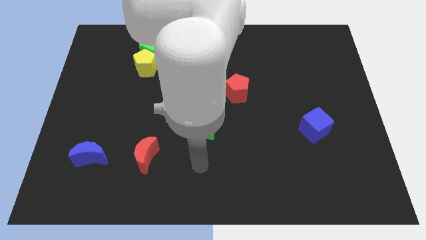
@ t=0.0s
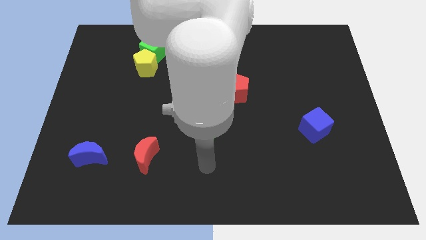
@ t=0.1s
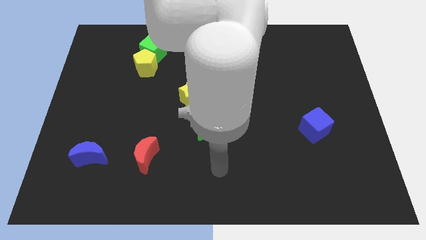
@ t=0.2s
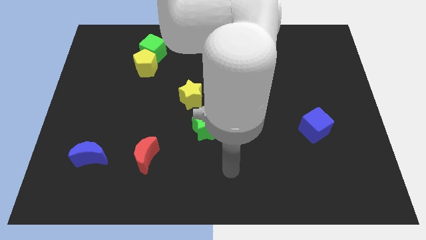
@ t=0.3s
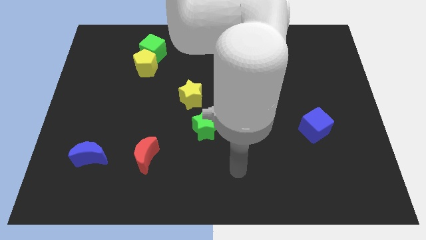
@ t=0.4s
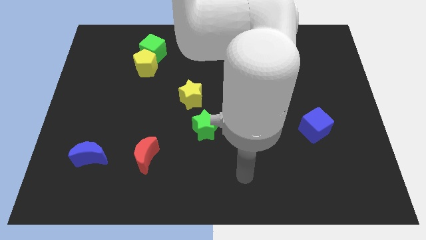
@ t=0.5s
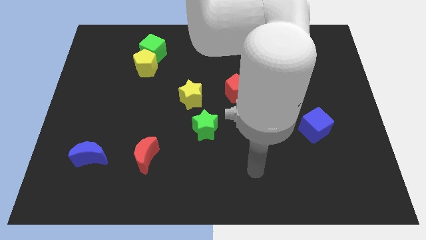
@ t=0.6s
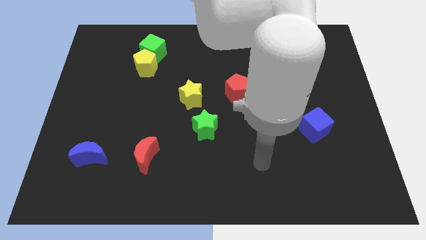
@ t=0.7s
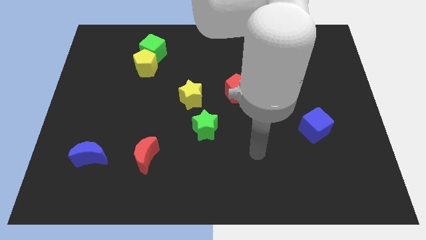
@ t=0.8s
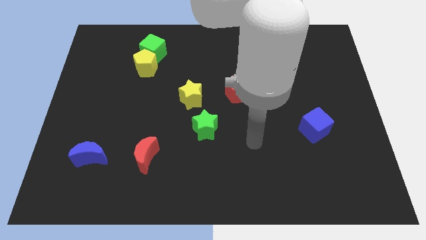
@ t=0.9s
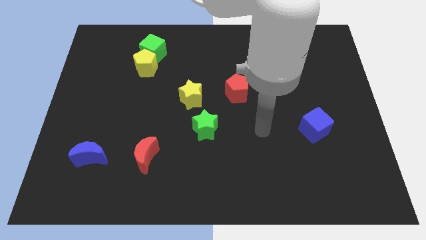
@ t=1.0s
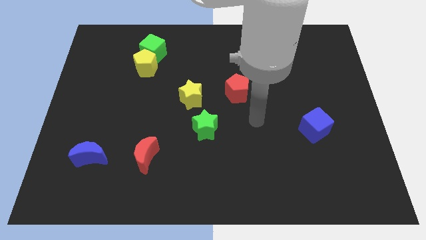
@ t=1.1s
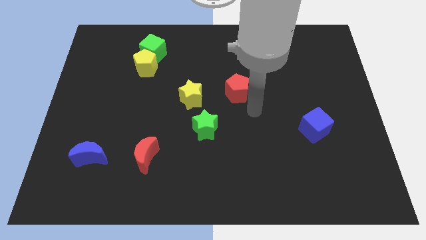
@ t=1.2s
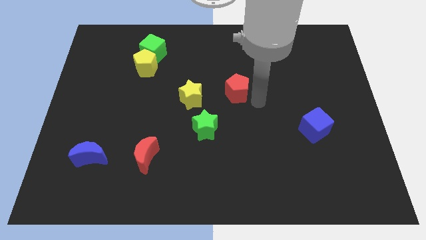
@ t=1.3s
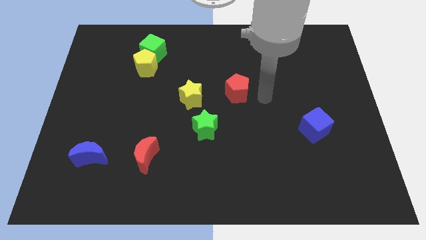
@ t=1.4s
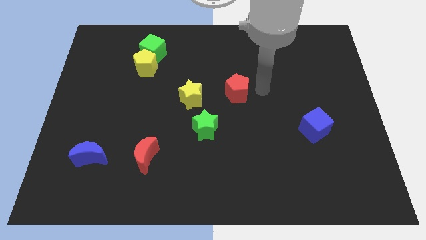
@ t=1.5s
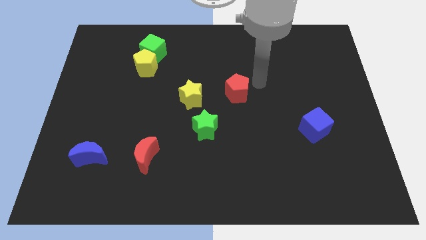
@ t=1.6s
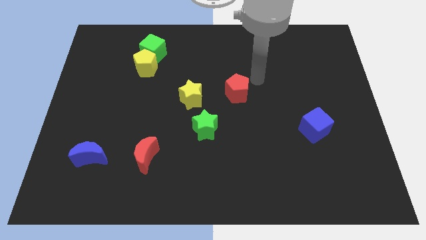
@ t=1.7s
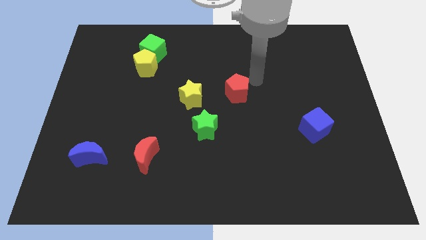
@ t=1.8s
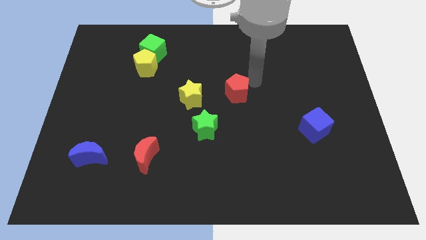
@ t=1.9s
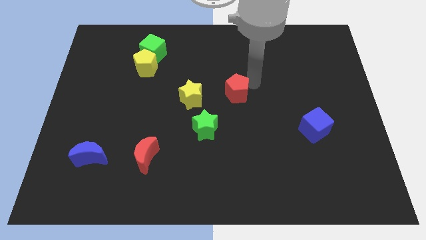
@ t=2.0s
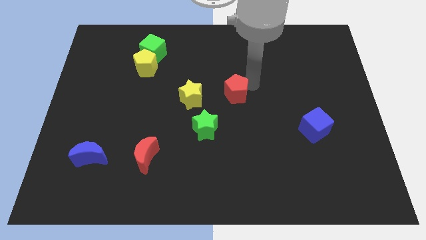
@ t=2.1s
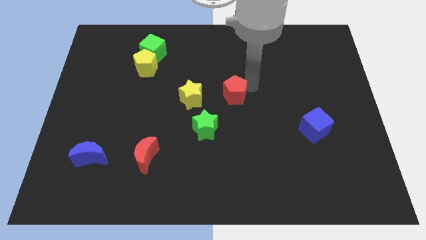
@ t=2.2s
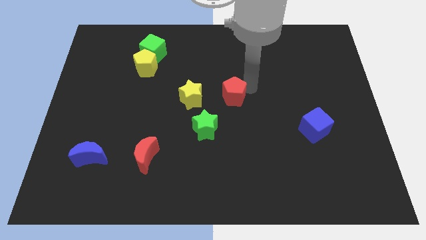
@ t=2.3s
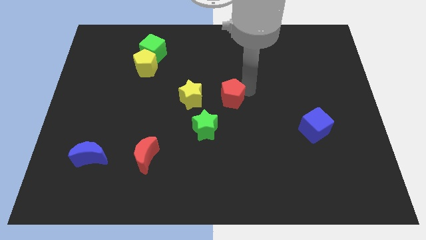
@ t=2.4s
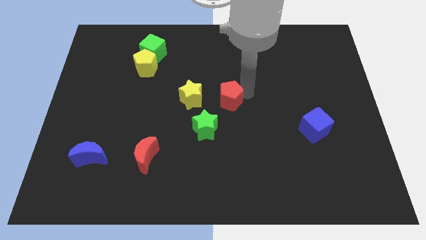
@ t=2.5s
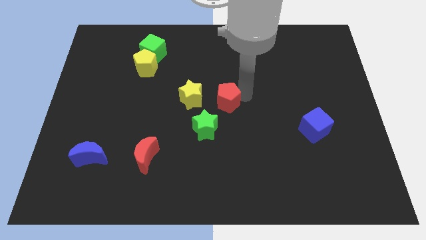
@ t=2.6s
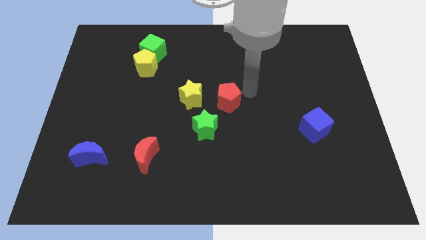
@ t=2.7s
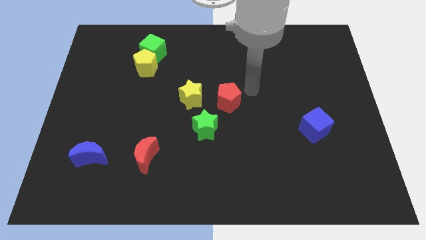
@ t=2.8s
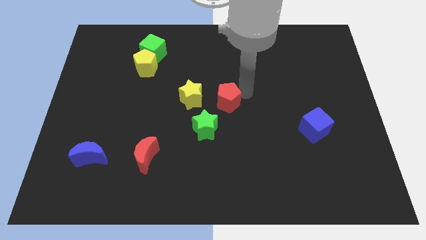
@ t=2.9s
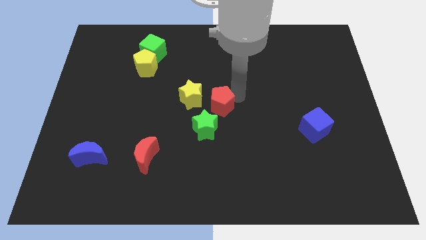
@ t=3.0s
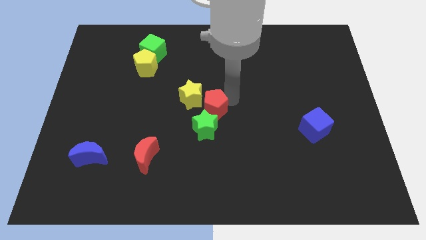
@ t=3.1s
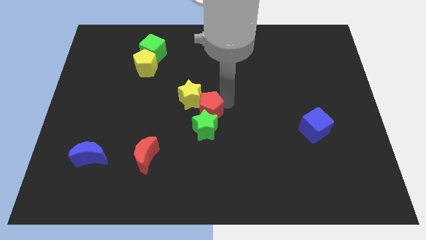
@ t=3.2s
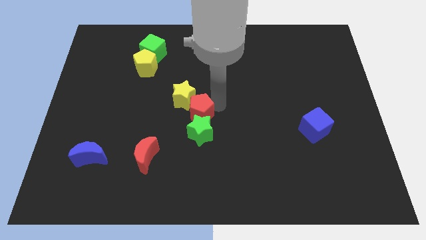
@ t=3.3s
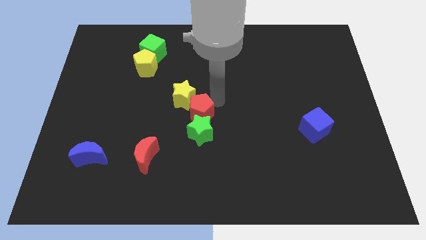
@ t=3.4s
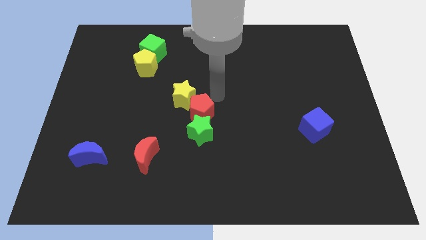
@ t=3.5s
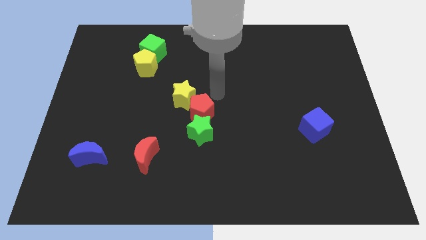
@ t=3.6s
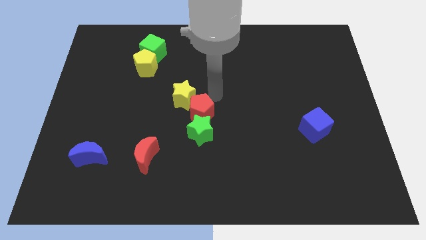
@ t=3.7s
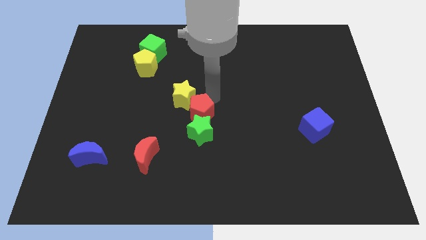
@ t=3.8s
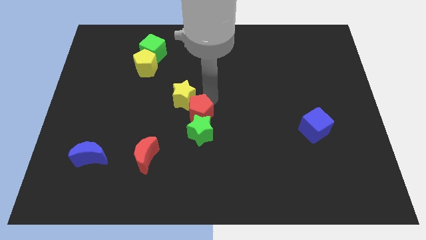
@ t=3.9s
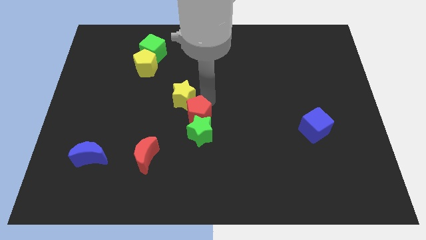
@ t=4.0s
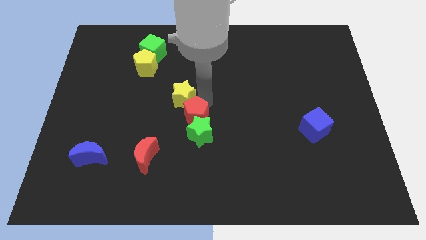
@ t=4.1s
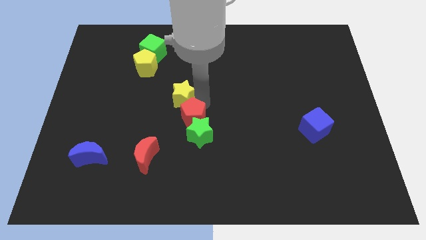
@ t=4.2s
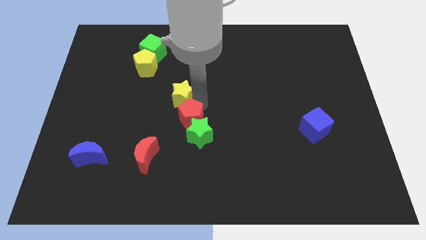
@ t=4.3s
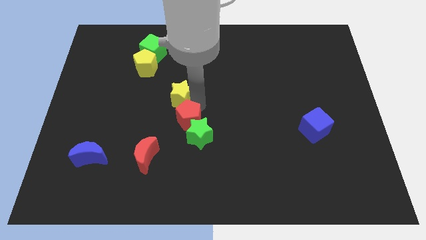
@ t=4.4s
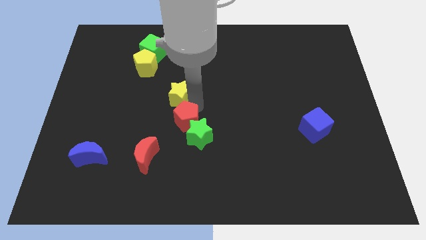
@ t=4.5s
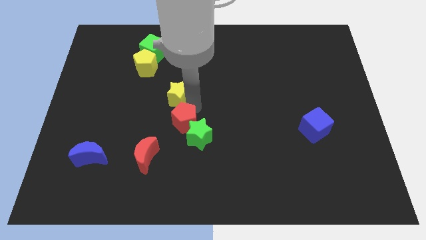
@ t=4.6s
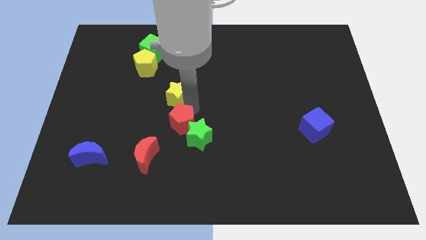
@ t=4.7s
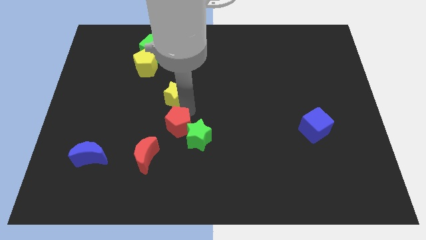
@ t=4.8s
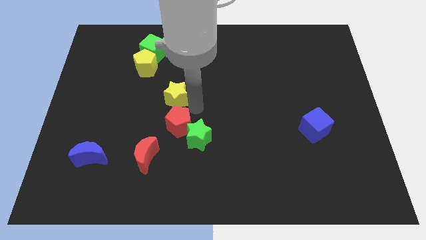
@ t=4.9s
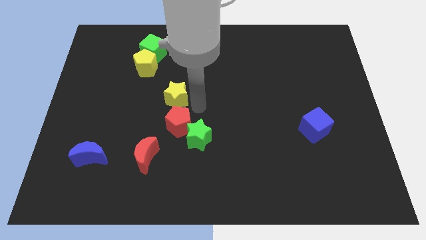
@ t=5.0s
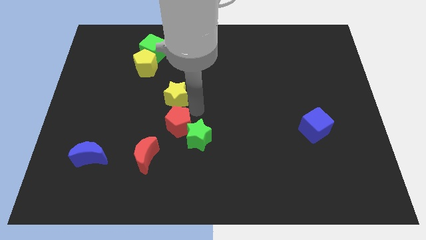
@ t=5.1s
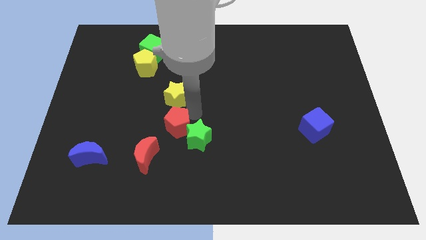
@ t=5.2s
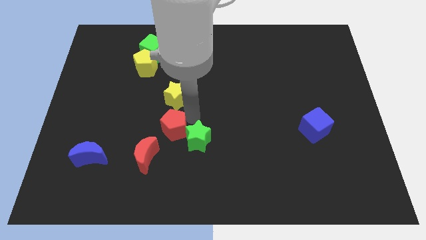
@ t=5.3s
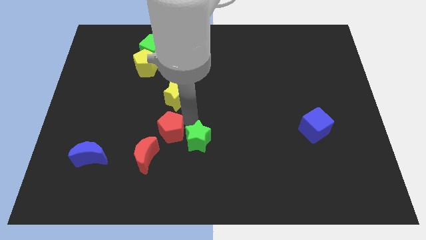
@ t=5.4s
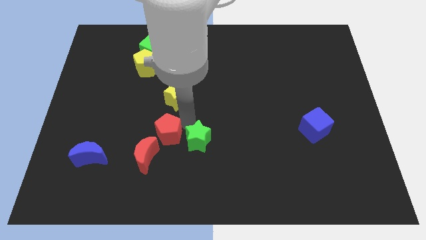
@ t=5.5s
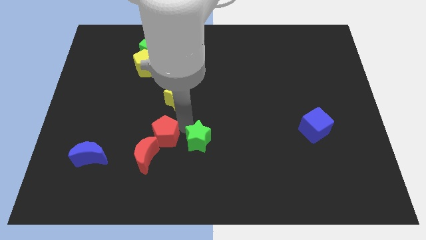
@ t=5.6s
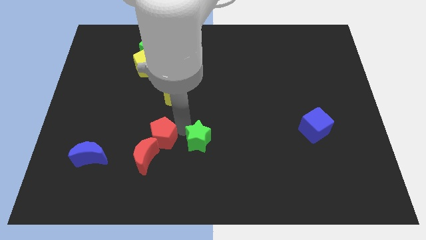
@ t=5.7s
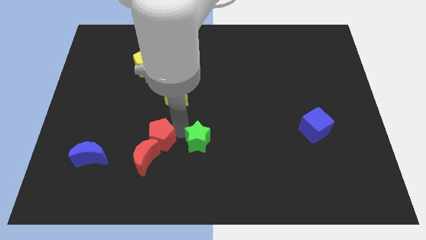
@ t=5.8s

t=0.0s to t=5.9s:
move the red pentagon close to the red moon

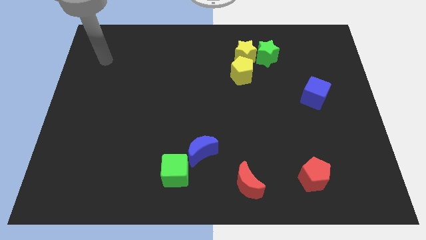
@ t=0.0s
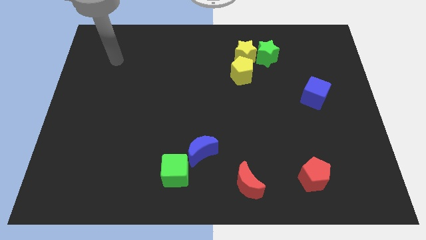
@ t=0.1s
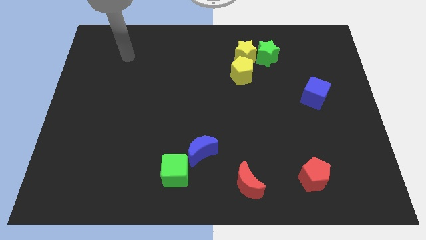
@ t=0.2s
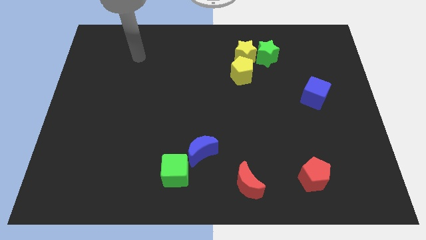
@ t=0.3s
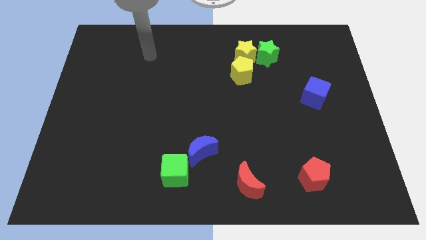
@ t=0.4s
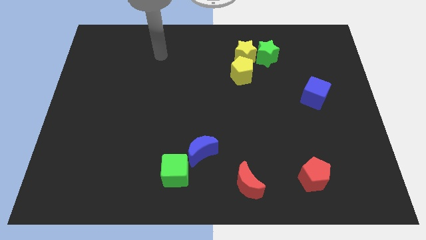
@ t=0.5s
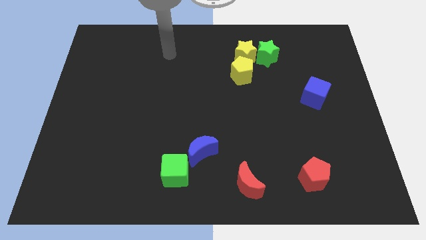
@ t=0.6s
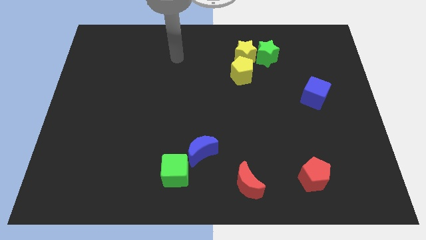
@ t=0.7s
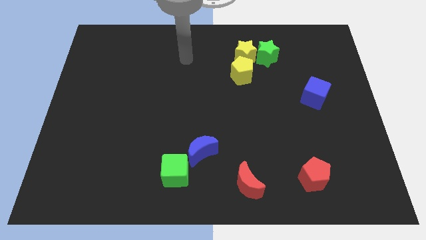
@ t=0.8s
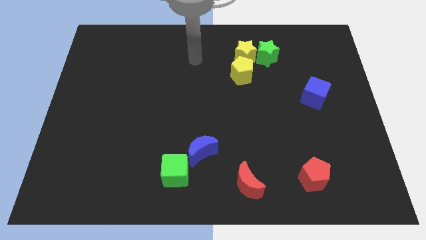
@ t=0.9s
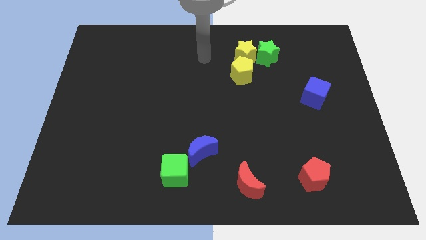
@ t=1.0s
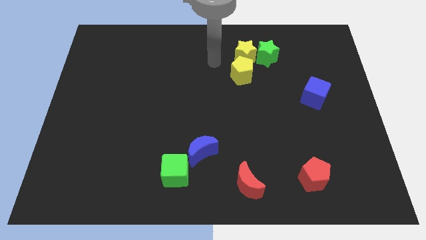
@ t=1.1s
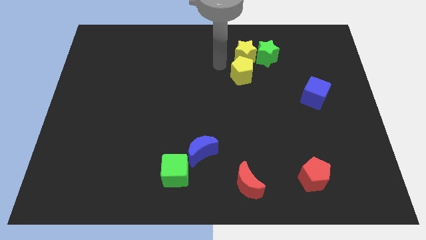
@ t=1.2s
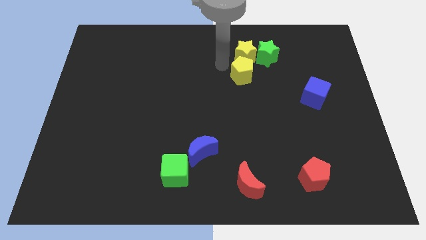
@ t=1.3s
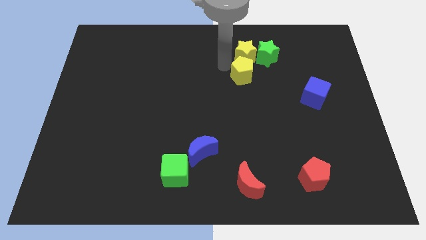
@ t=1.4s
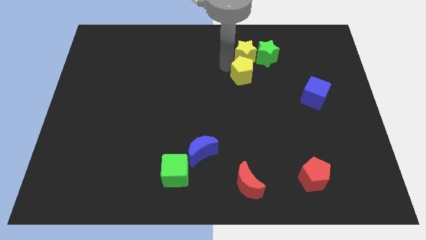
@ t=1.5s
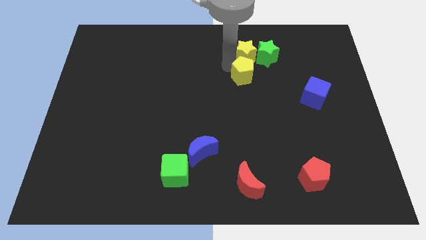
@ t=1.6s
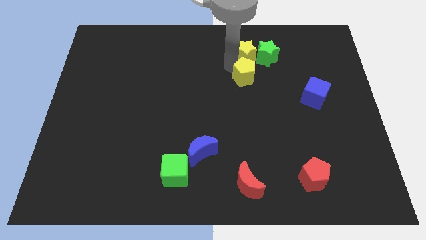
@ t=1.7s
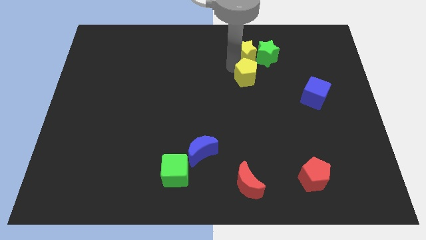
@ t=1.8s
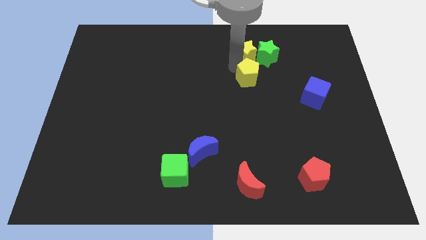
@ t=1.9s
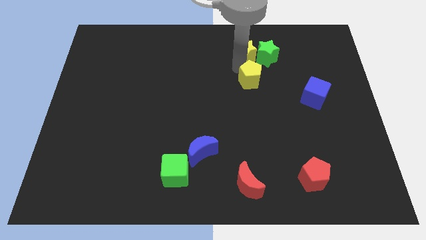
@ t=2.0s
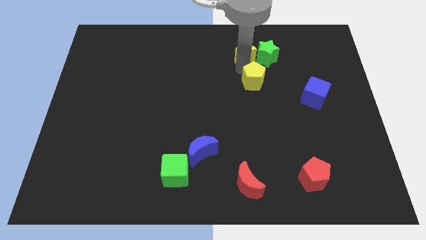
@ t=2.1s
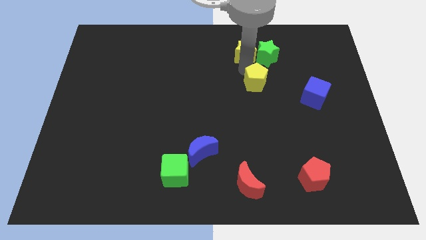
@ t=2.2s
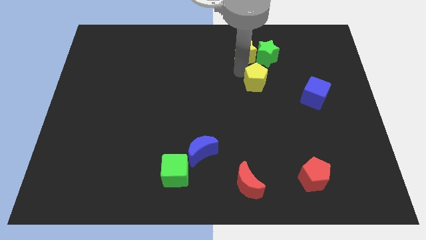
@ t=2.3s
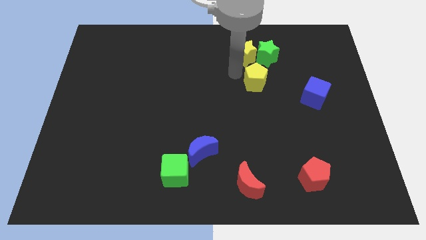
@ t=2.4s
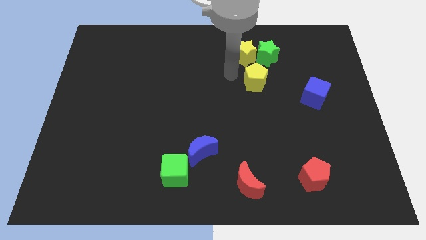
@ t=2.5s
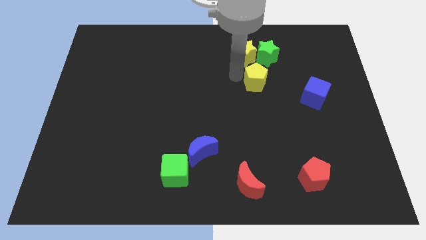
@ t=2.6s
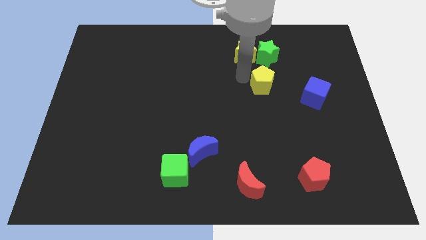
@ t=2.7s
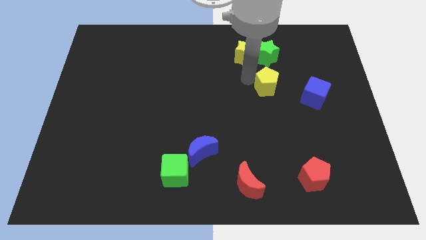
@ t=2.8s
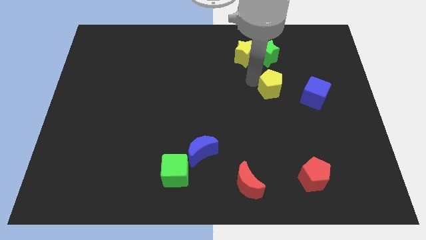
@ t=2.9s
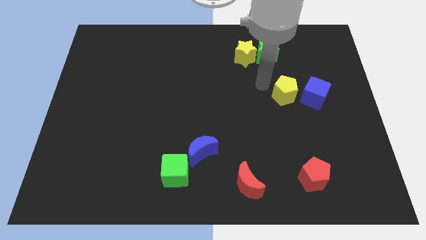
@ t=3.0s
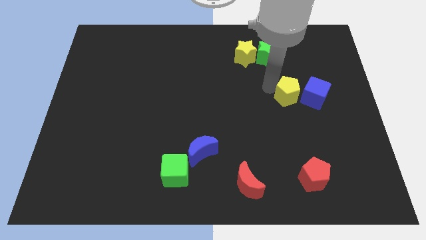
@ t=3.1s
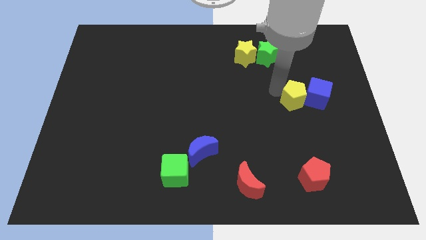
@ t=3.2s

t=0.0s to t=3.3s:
push the yellow pentagon towards the blue cube
